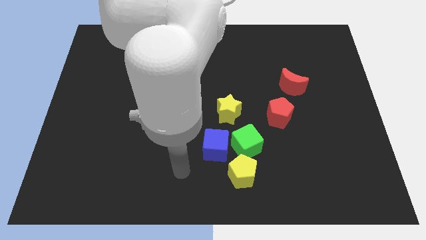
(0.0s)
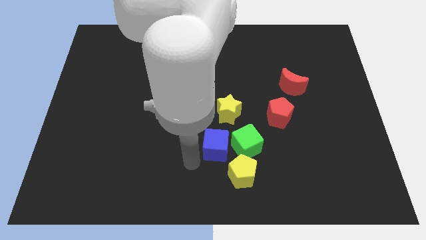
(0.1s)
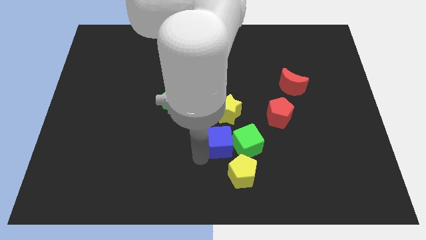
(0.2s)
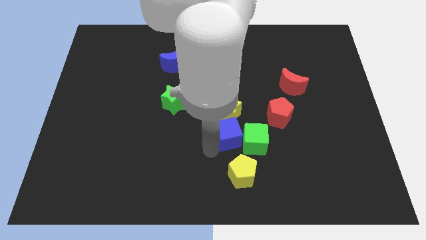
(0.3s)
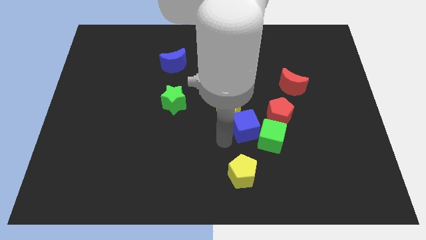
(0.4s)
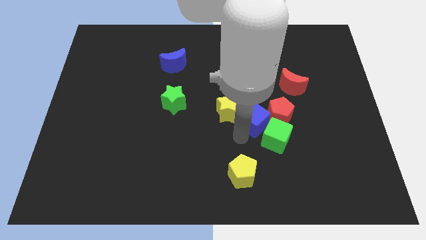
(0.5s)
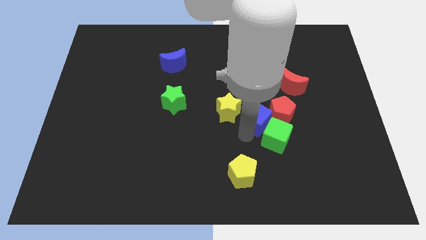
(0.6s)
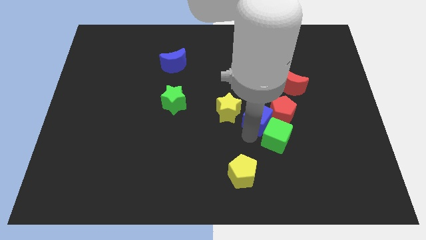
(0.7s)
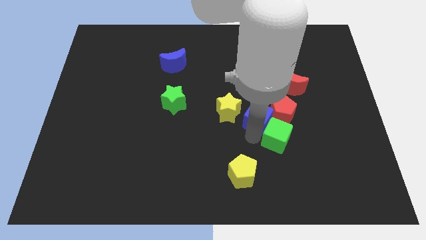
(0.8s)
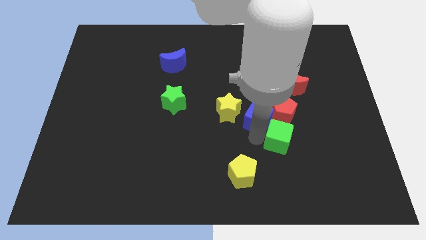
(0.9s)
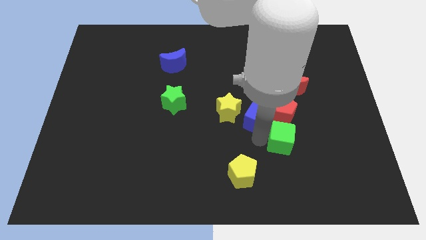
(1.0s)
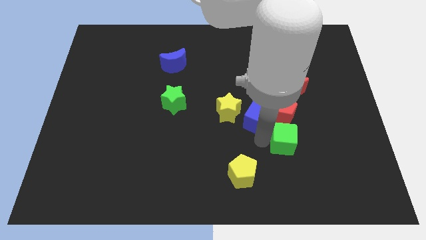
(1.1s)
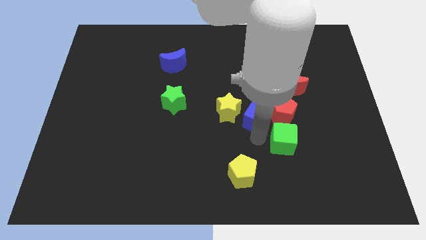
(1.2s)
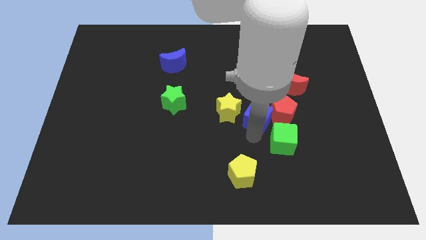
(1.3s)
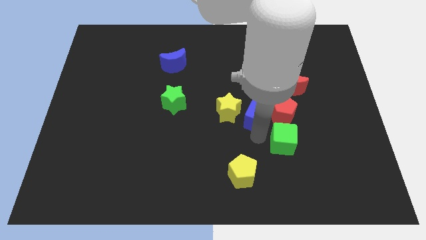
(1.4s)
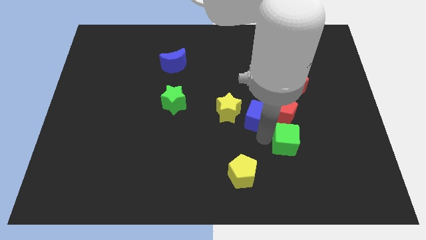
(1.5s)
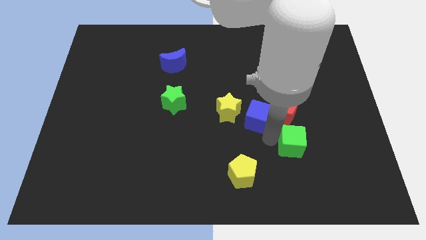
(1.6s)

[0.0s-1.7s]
separate the green cube from the blue cube, yellow pentagon, and yellow star

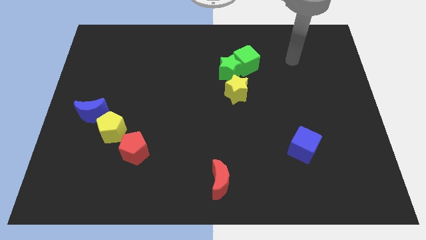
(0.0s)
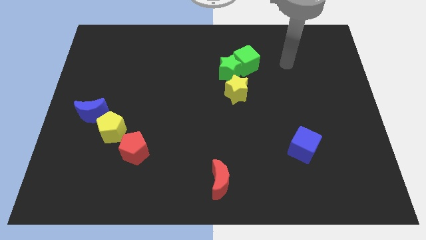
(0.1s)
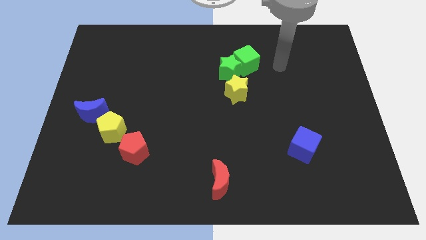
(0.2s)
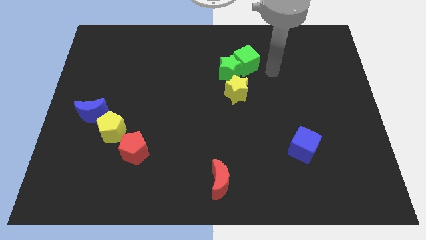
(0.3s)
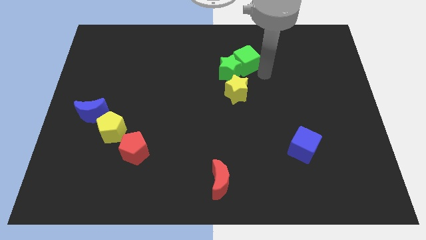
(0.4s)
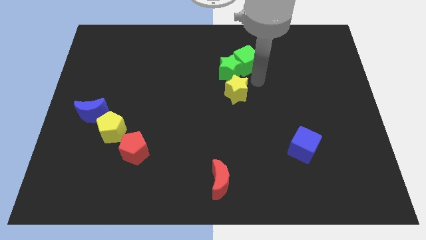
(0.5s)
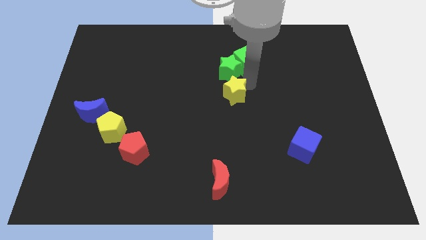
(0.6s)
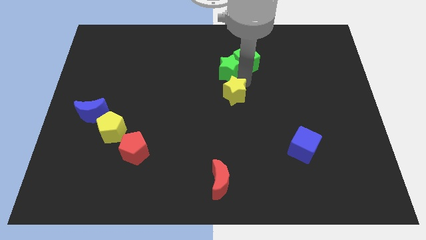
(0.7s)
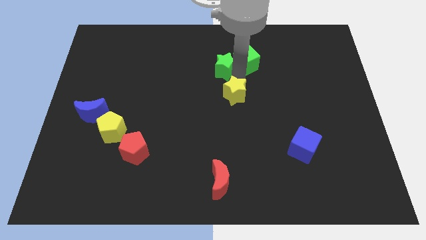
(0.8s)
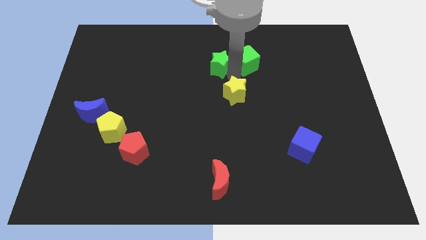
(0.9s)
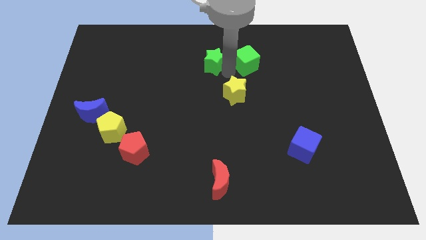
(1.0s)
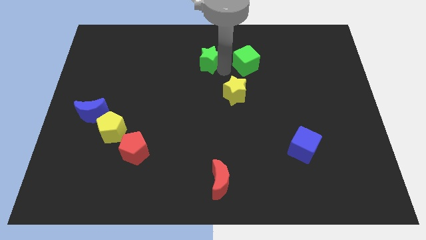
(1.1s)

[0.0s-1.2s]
move the green star away from the green cube and yellow star

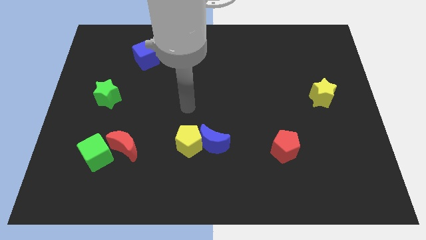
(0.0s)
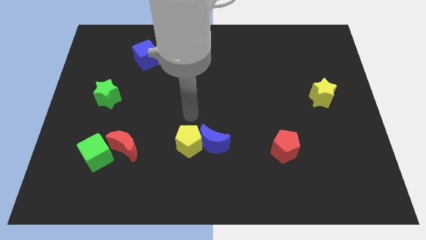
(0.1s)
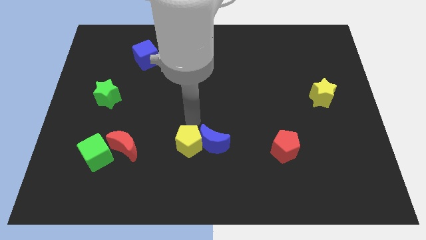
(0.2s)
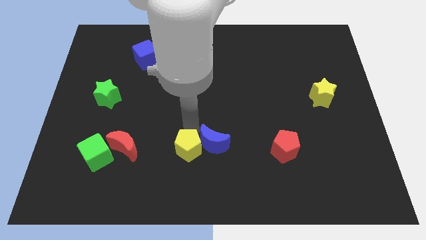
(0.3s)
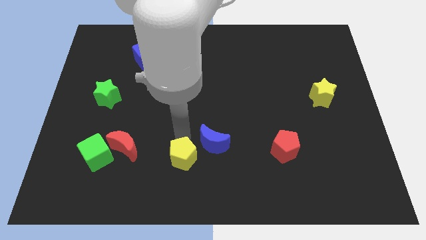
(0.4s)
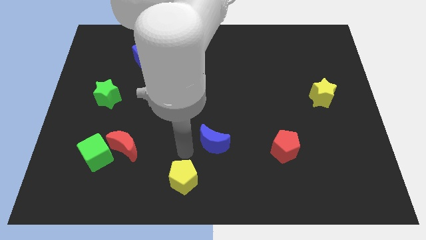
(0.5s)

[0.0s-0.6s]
move the blue moon away from the yellow pentagon

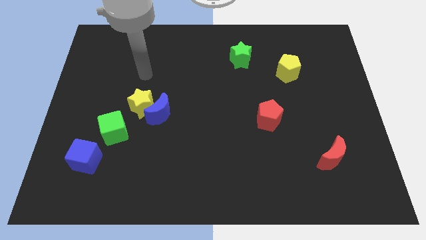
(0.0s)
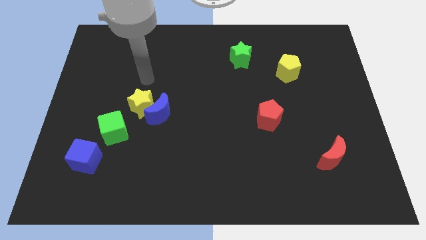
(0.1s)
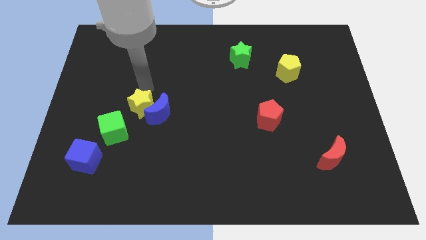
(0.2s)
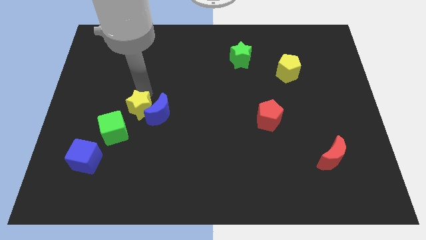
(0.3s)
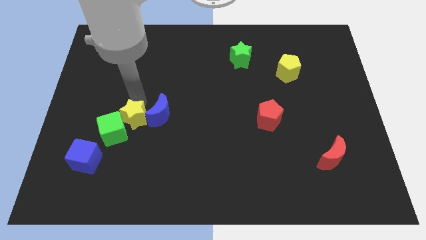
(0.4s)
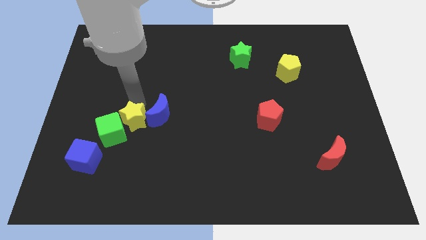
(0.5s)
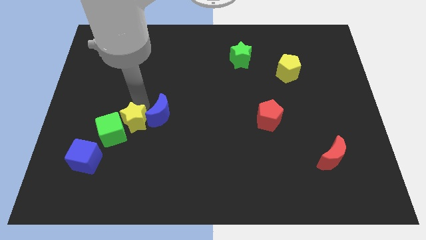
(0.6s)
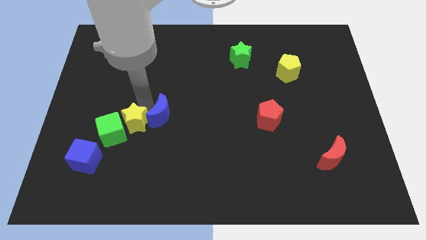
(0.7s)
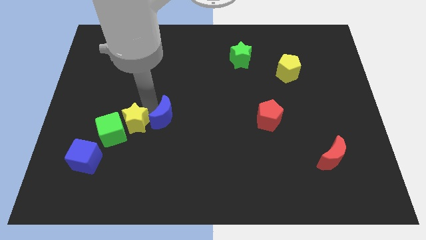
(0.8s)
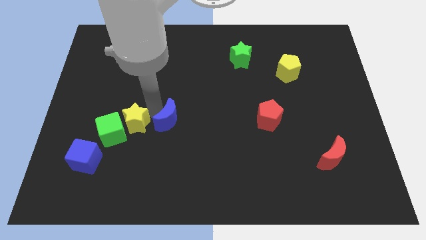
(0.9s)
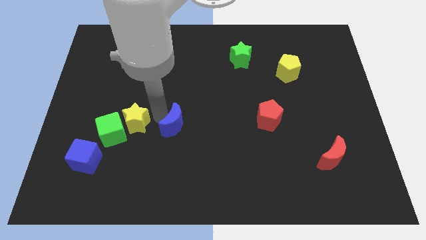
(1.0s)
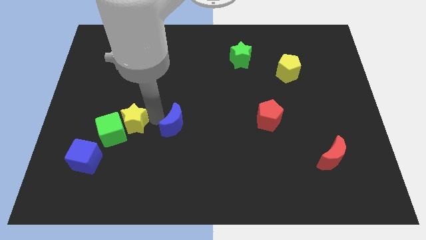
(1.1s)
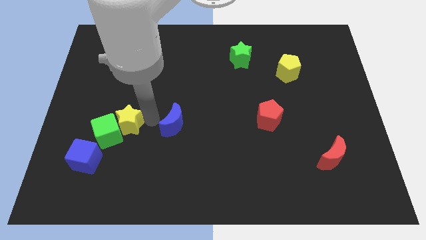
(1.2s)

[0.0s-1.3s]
separate the blue moon from the yellow star

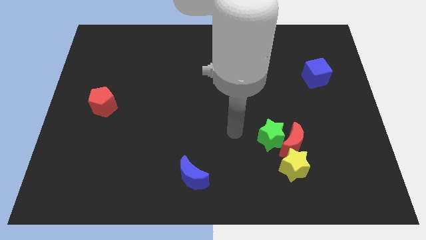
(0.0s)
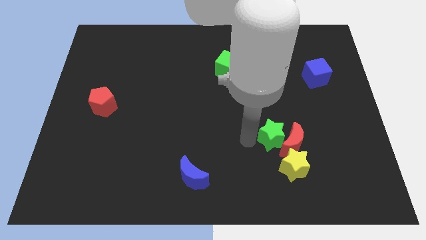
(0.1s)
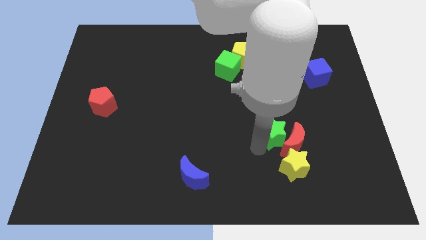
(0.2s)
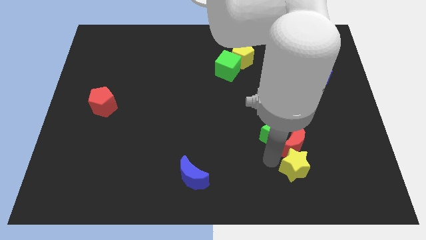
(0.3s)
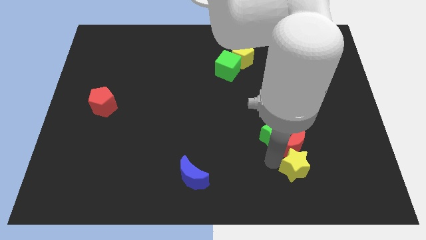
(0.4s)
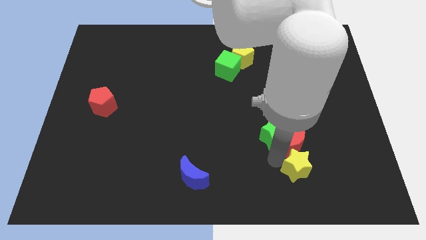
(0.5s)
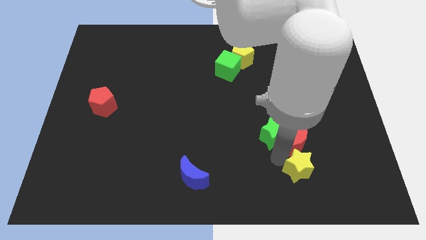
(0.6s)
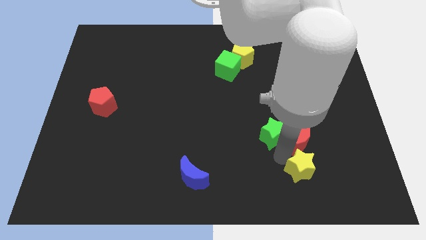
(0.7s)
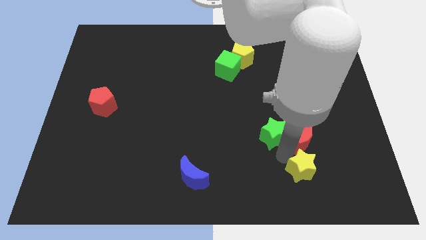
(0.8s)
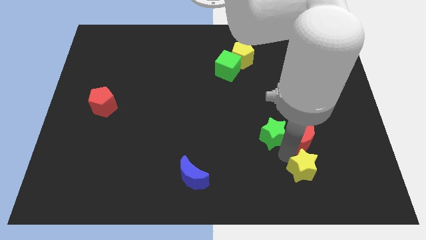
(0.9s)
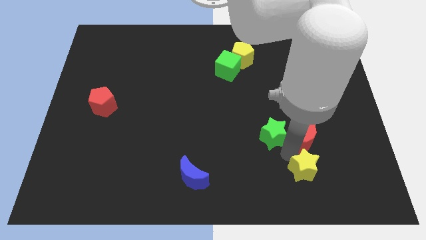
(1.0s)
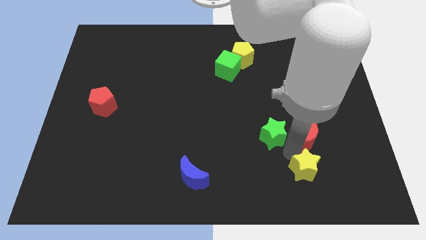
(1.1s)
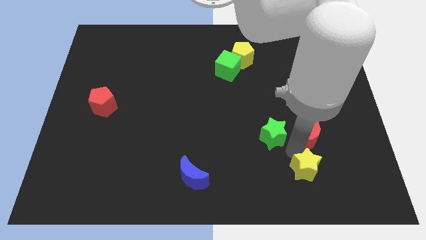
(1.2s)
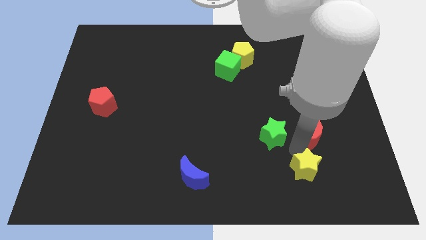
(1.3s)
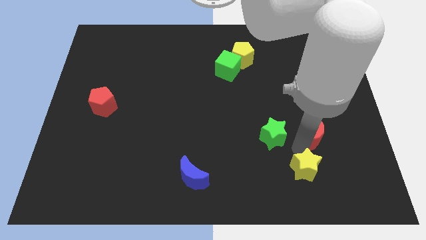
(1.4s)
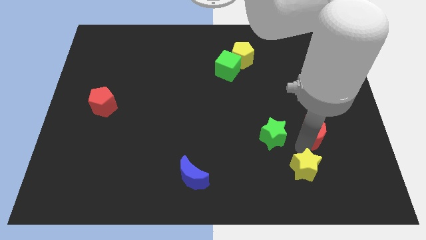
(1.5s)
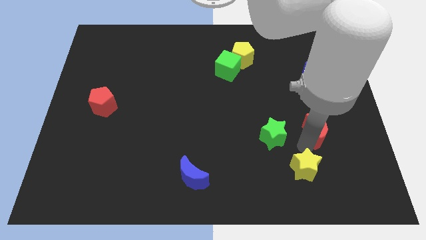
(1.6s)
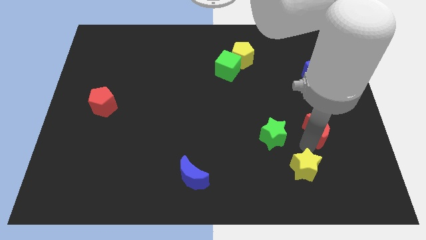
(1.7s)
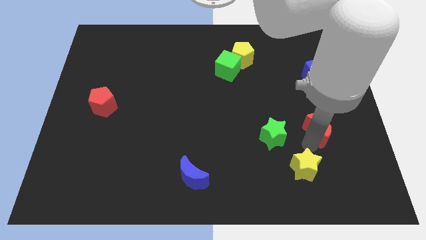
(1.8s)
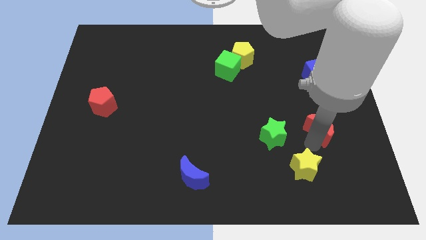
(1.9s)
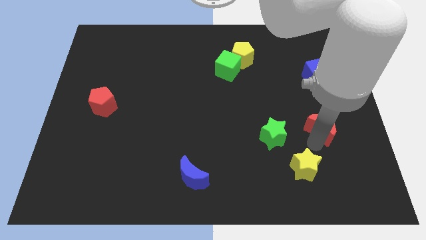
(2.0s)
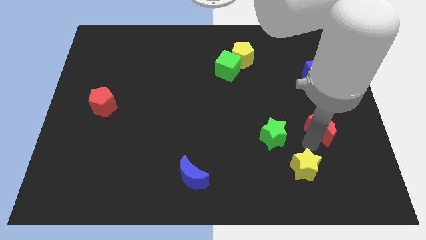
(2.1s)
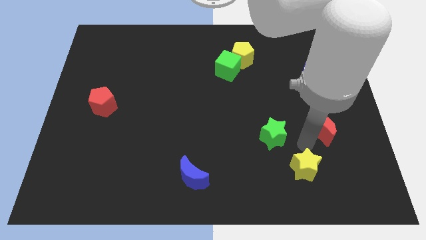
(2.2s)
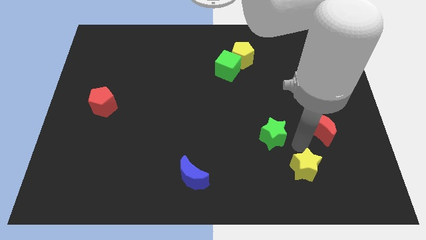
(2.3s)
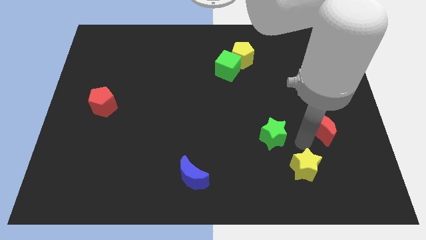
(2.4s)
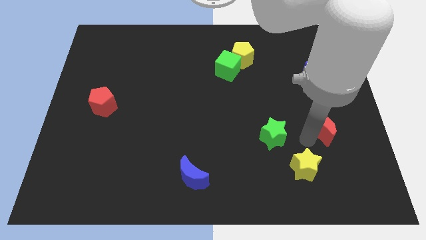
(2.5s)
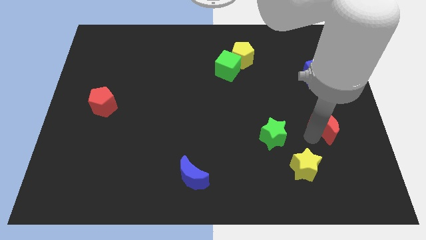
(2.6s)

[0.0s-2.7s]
separate the red moon from the green star and yellow star

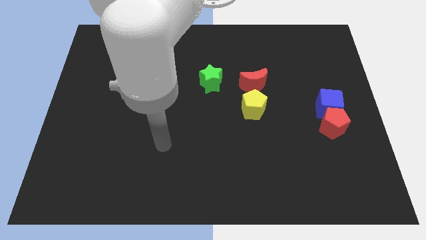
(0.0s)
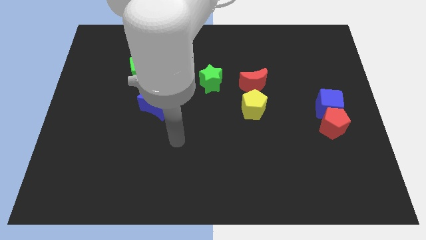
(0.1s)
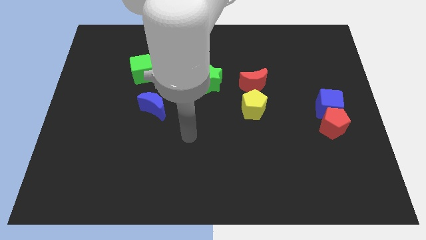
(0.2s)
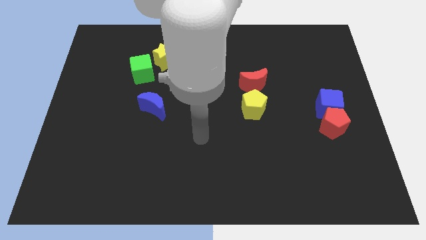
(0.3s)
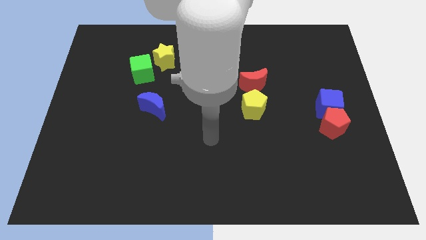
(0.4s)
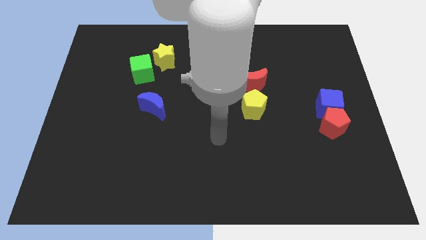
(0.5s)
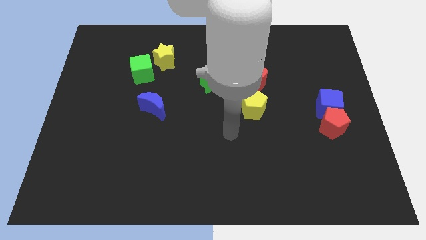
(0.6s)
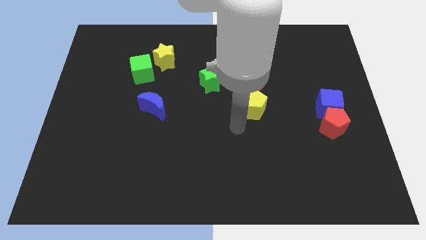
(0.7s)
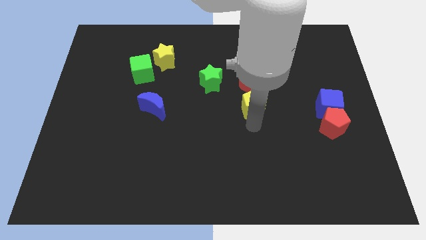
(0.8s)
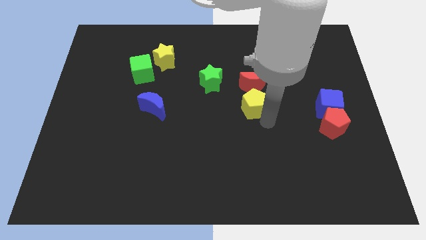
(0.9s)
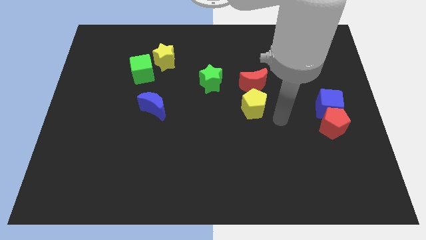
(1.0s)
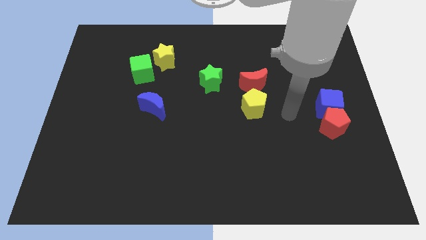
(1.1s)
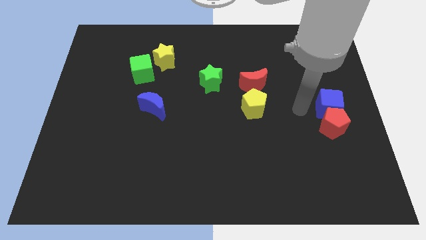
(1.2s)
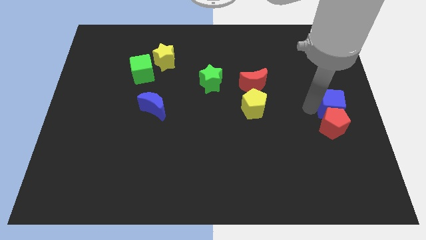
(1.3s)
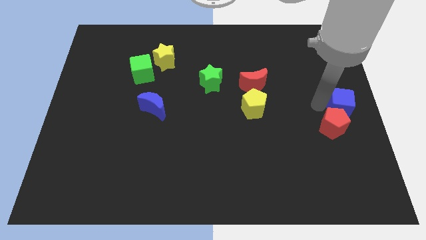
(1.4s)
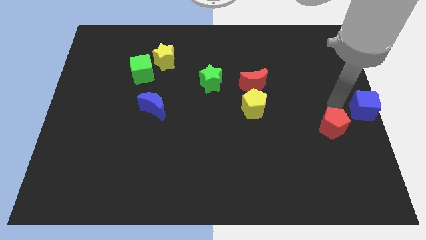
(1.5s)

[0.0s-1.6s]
move the red pentagon away from the blue cube

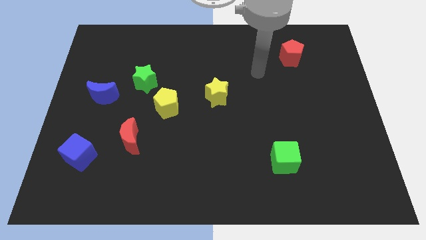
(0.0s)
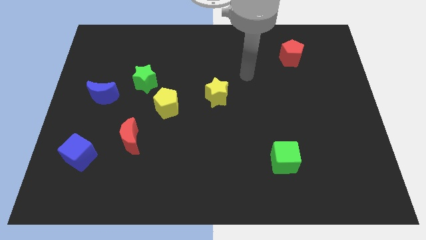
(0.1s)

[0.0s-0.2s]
move the green star away from the yellow pentagon
